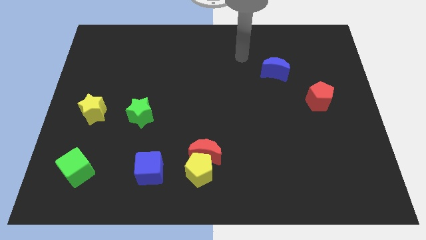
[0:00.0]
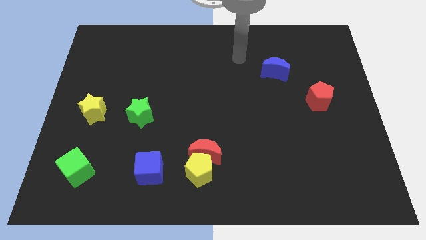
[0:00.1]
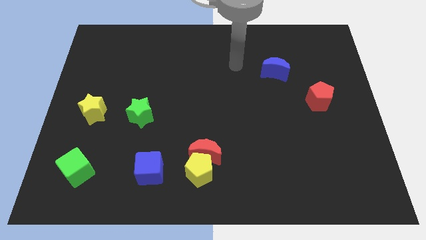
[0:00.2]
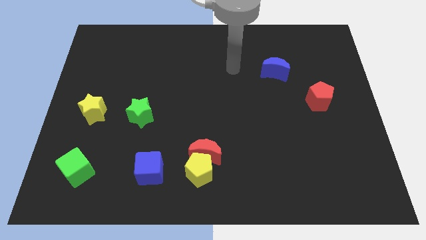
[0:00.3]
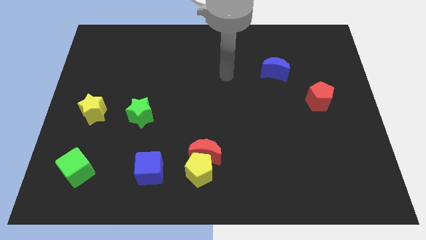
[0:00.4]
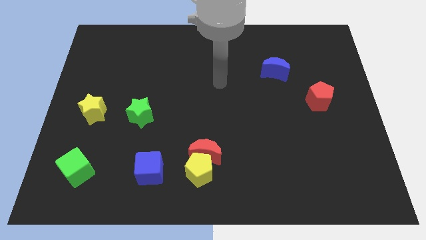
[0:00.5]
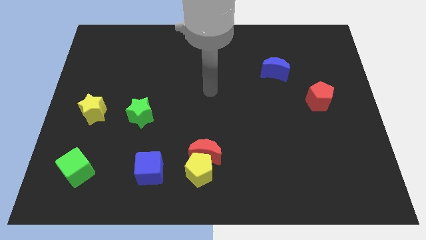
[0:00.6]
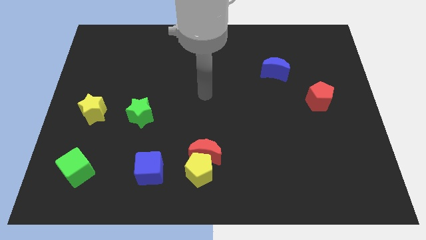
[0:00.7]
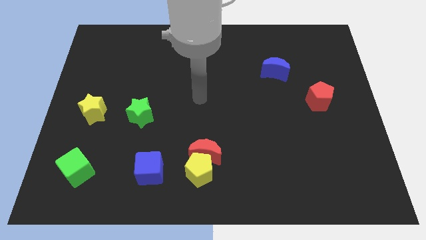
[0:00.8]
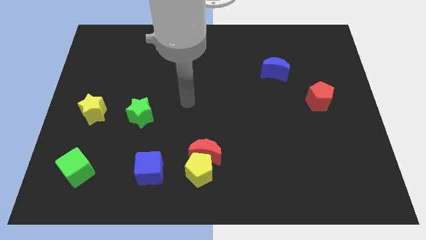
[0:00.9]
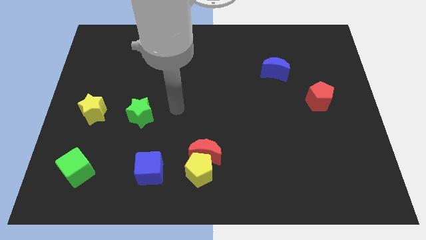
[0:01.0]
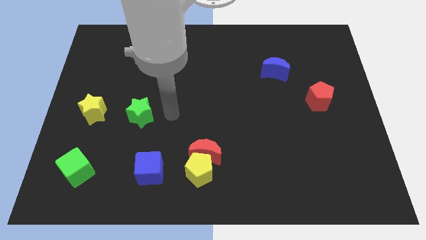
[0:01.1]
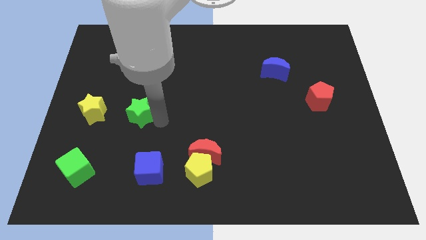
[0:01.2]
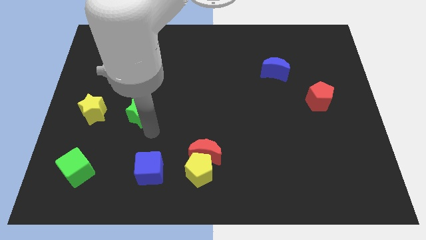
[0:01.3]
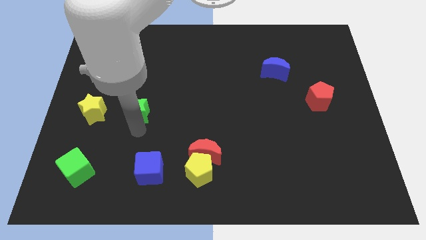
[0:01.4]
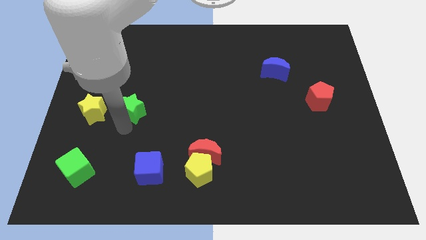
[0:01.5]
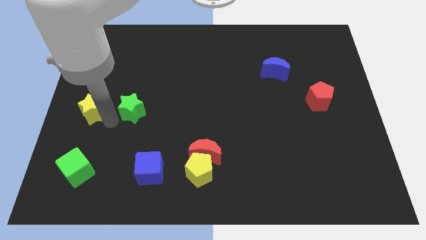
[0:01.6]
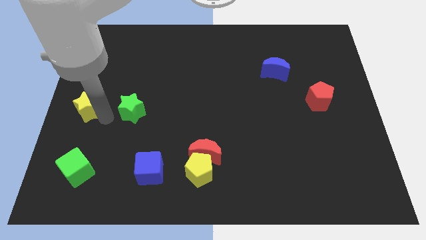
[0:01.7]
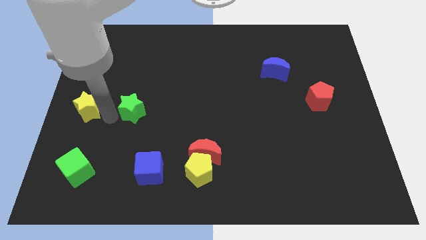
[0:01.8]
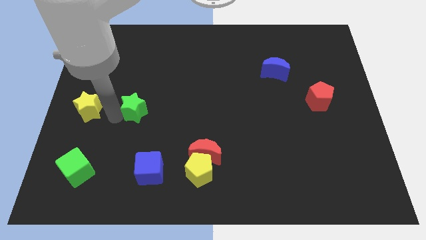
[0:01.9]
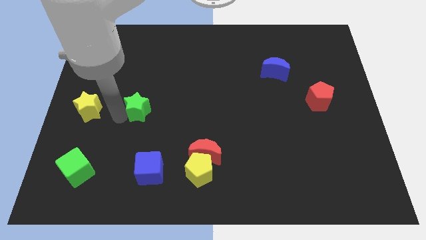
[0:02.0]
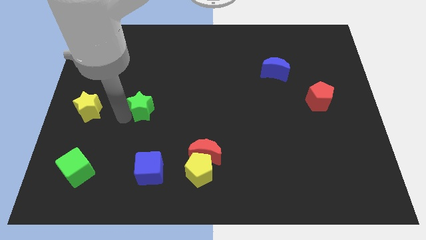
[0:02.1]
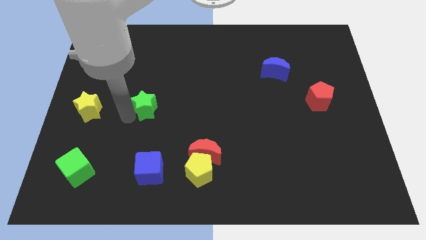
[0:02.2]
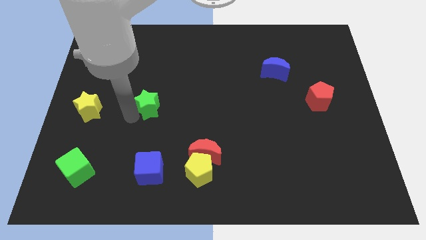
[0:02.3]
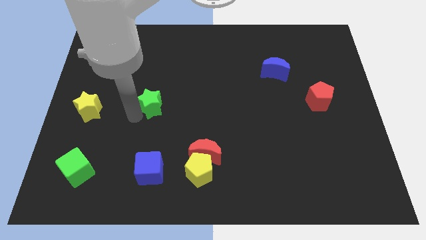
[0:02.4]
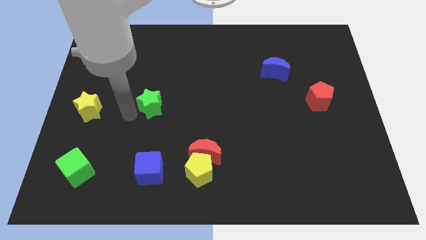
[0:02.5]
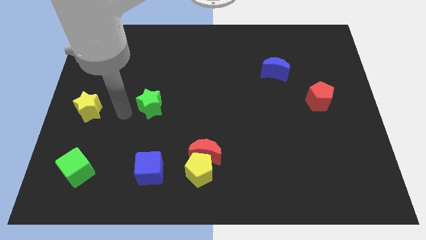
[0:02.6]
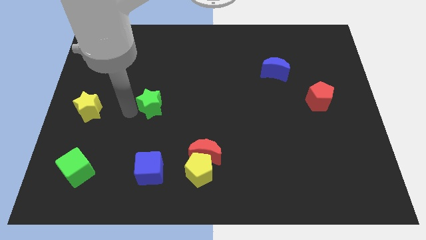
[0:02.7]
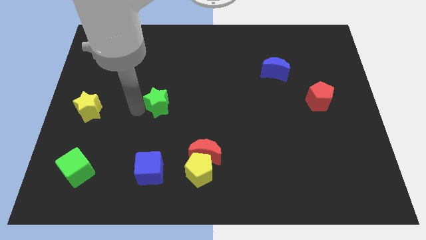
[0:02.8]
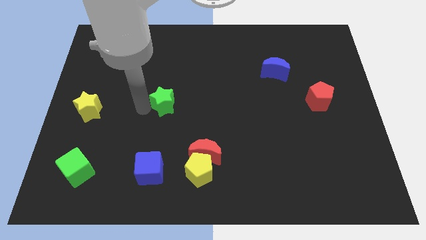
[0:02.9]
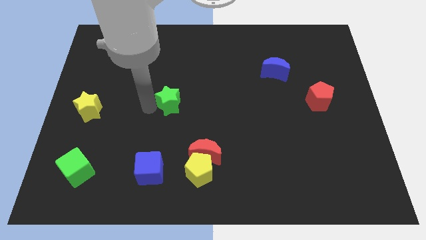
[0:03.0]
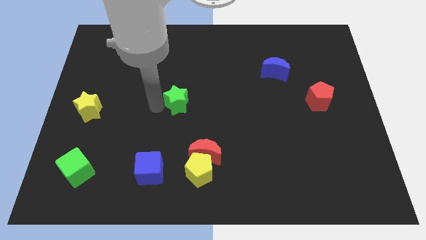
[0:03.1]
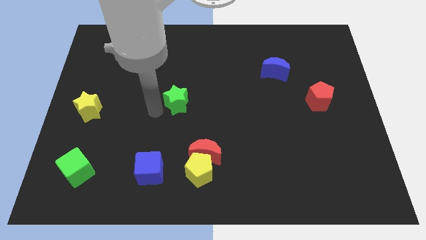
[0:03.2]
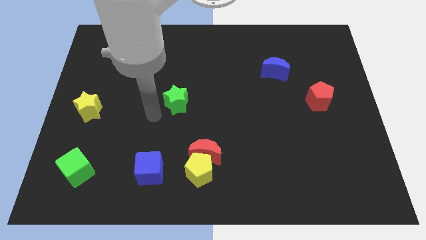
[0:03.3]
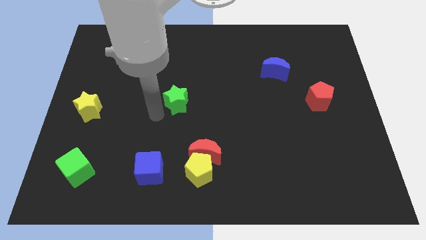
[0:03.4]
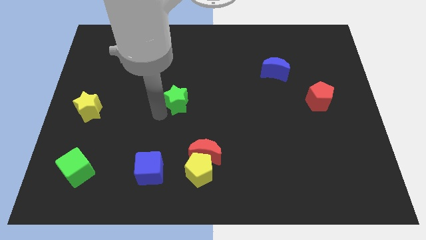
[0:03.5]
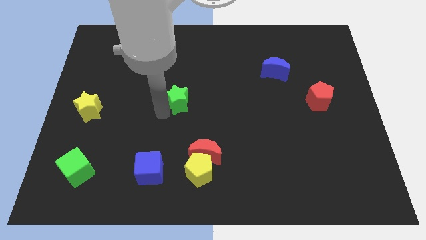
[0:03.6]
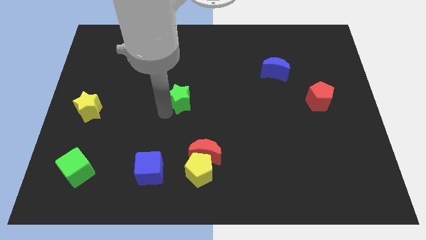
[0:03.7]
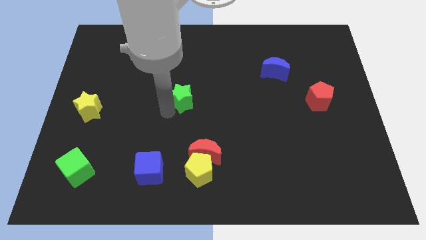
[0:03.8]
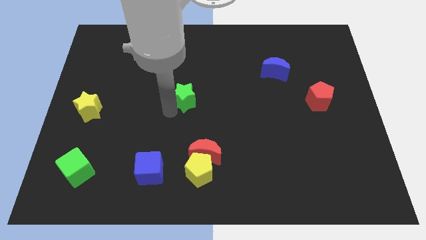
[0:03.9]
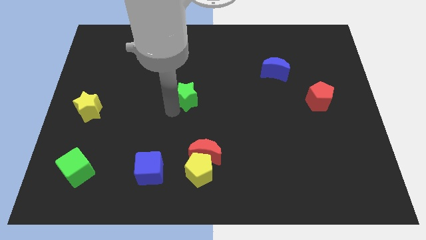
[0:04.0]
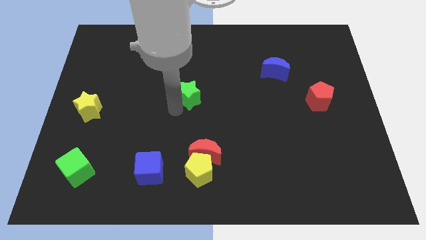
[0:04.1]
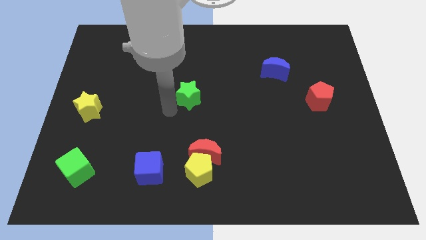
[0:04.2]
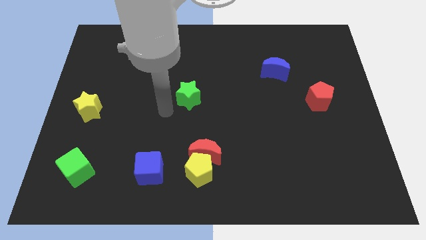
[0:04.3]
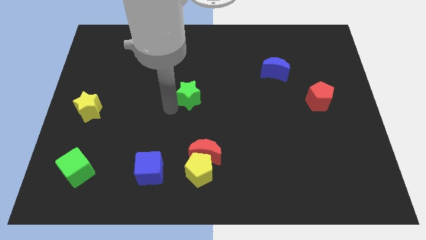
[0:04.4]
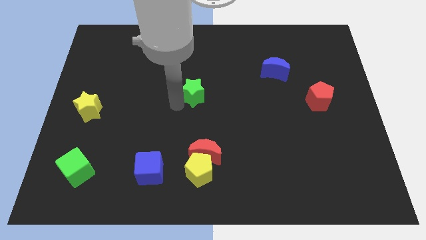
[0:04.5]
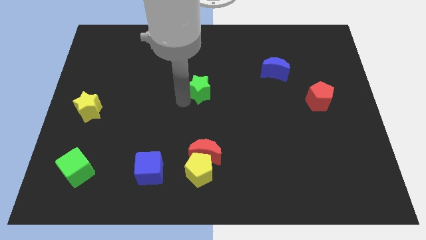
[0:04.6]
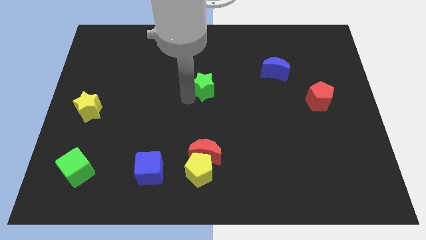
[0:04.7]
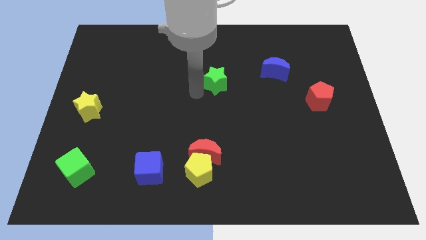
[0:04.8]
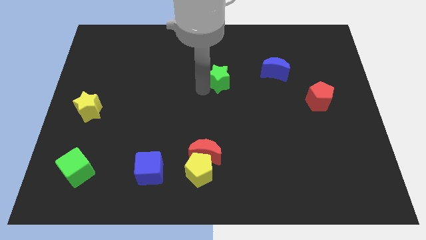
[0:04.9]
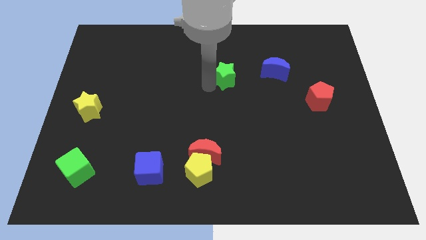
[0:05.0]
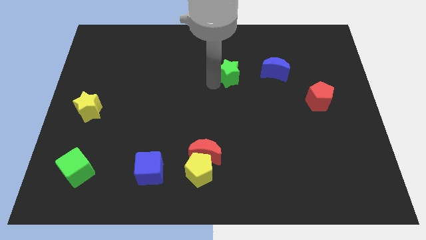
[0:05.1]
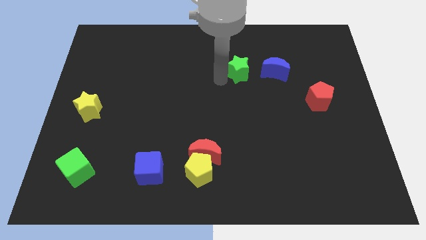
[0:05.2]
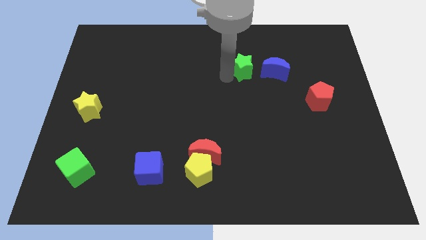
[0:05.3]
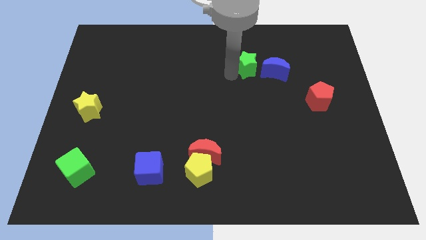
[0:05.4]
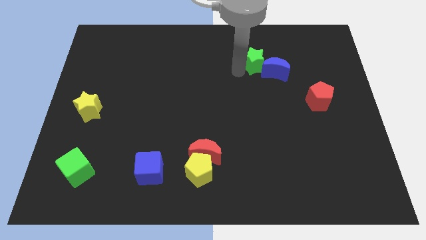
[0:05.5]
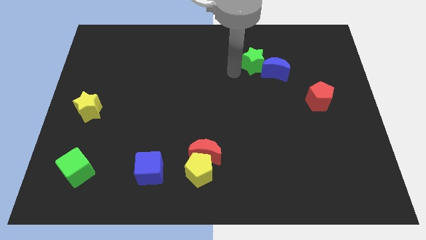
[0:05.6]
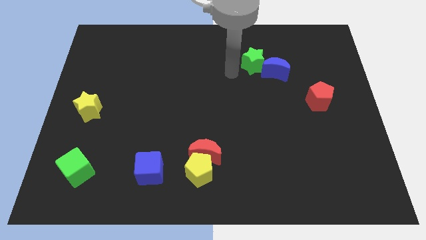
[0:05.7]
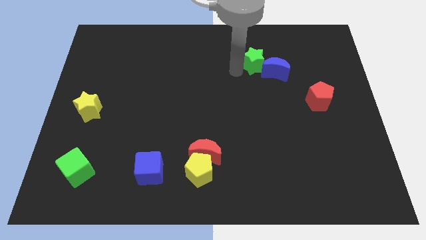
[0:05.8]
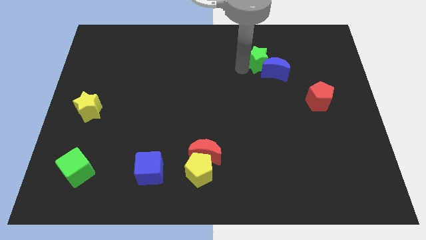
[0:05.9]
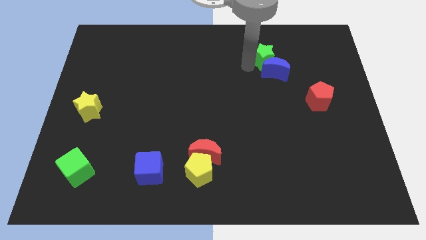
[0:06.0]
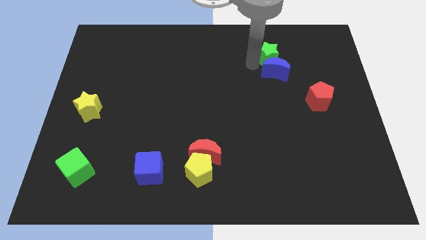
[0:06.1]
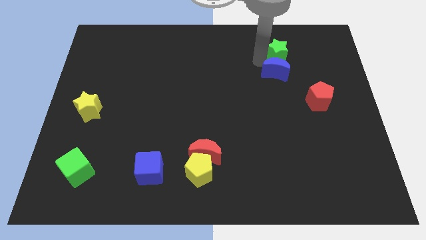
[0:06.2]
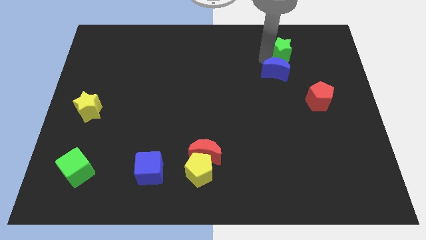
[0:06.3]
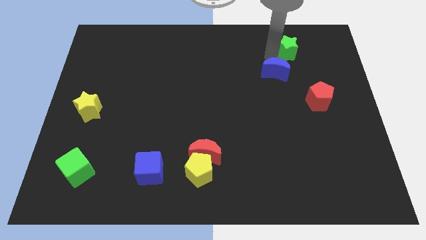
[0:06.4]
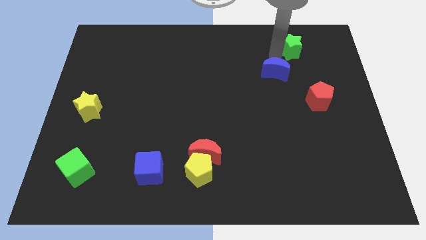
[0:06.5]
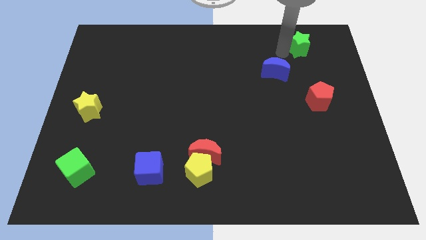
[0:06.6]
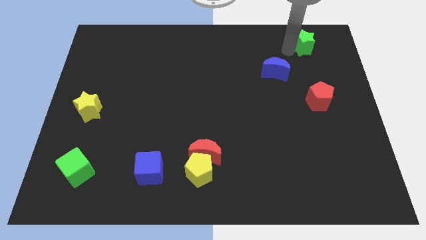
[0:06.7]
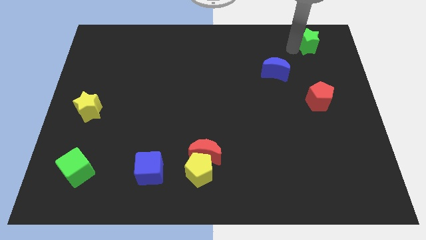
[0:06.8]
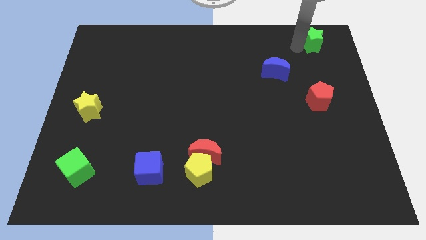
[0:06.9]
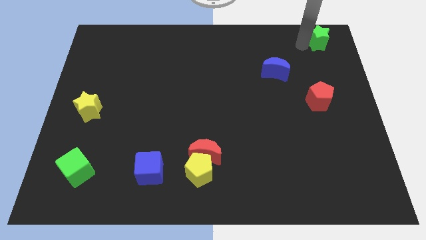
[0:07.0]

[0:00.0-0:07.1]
push the green star to the top right
